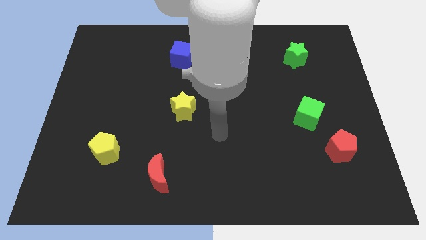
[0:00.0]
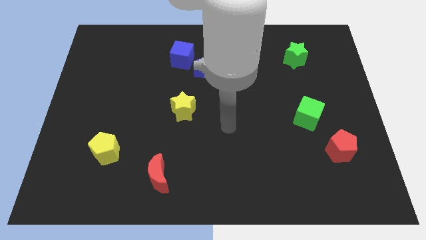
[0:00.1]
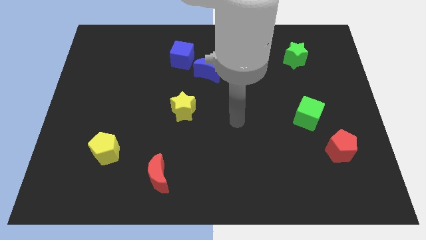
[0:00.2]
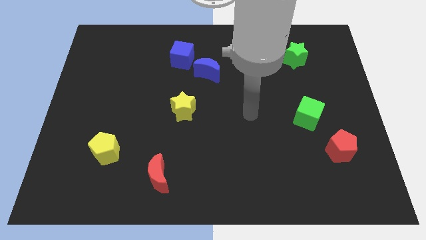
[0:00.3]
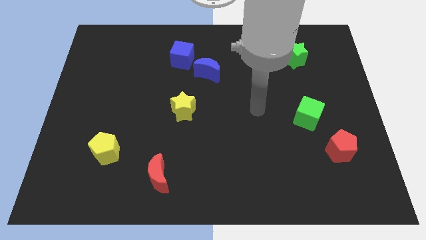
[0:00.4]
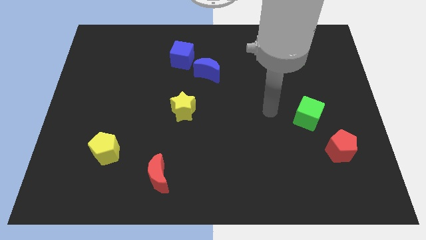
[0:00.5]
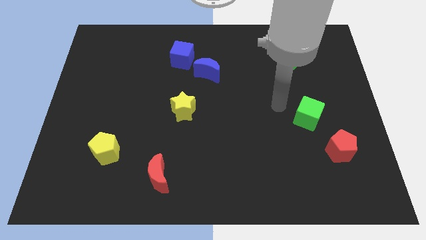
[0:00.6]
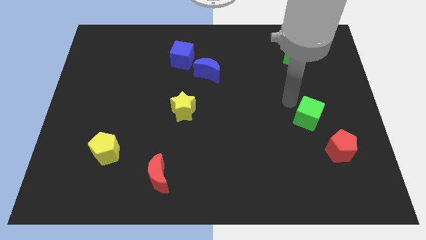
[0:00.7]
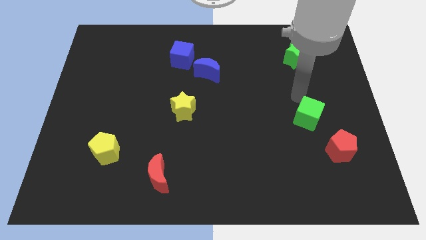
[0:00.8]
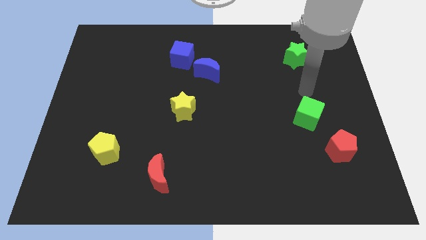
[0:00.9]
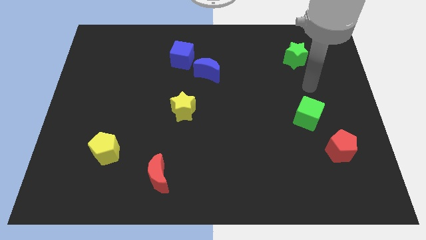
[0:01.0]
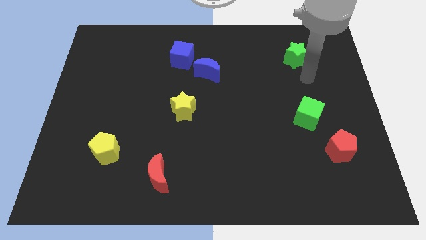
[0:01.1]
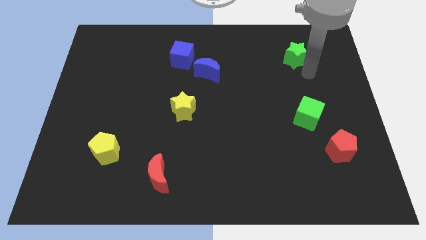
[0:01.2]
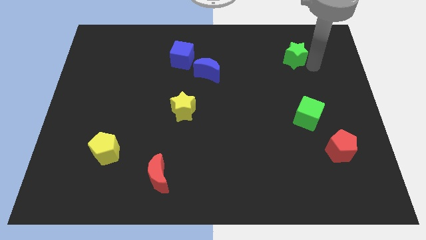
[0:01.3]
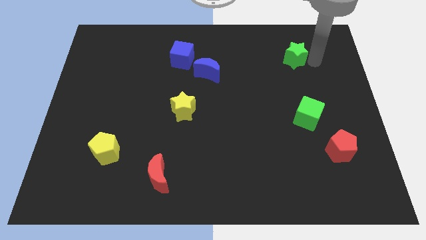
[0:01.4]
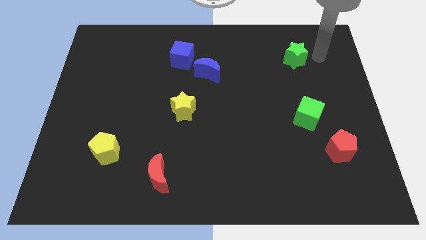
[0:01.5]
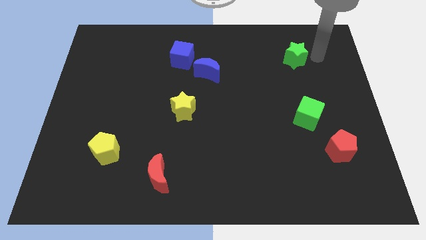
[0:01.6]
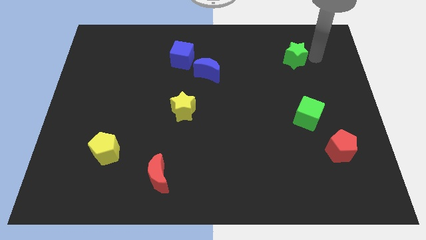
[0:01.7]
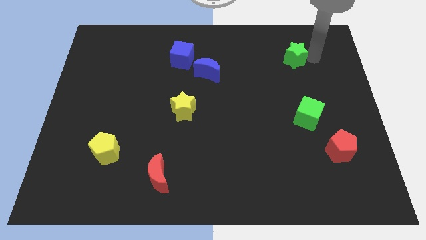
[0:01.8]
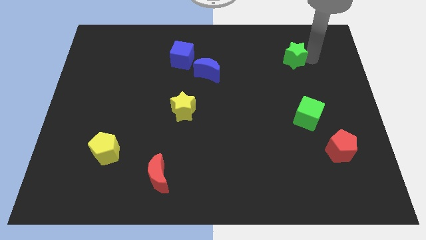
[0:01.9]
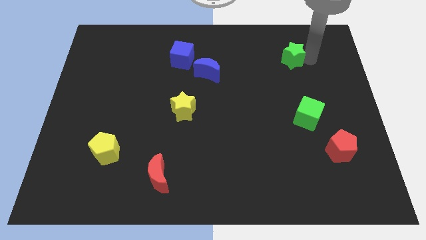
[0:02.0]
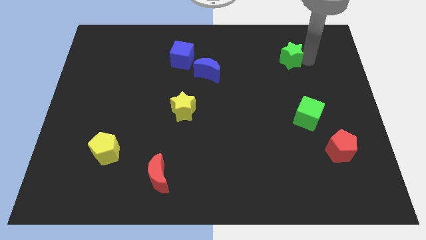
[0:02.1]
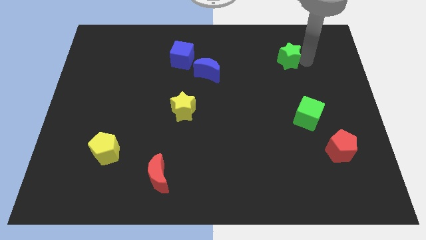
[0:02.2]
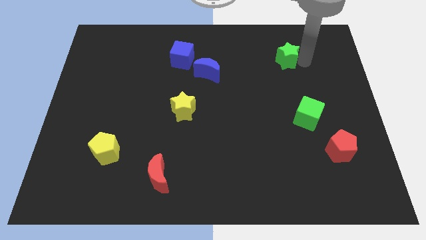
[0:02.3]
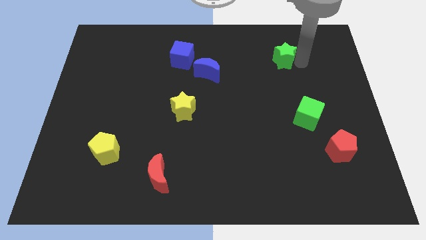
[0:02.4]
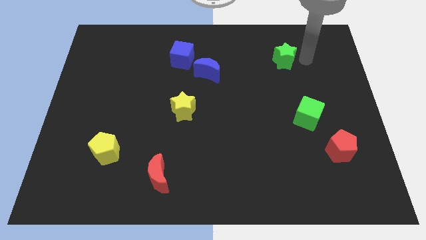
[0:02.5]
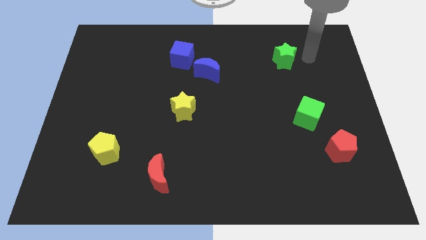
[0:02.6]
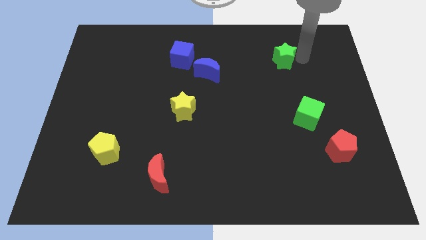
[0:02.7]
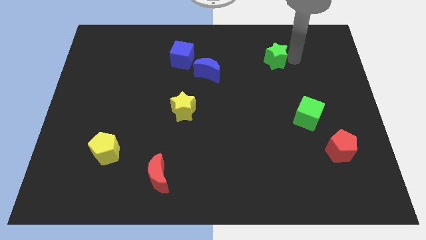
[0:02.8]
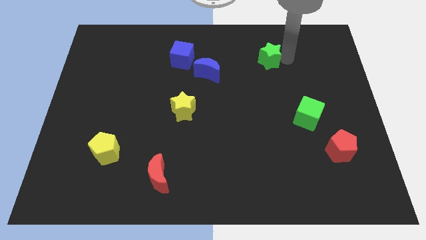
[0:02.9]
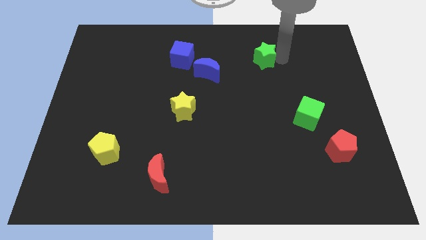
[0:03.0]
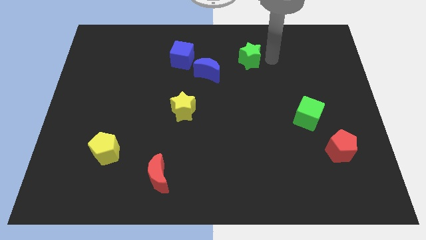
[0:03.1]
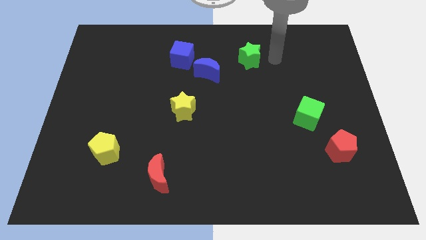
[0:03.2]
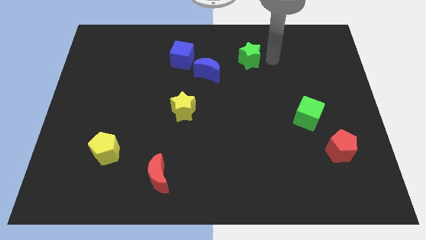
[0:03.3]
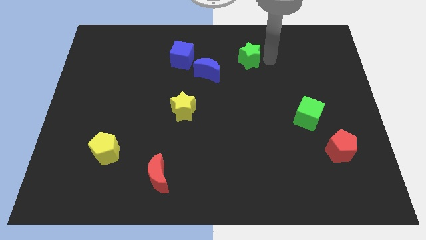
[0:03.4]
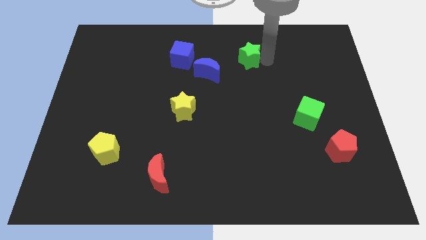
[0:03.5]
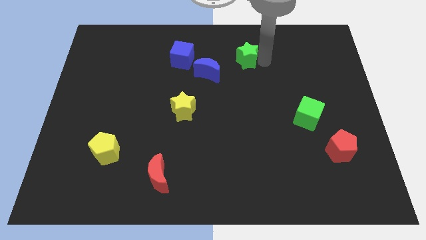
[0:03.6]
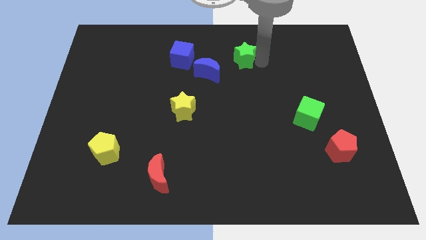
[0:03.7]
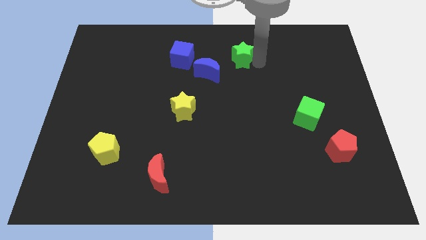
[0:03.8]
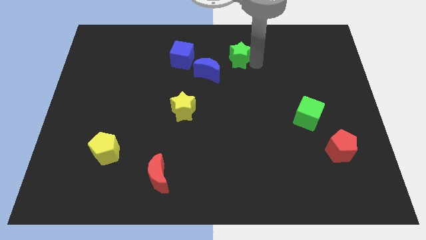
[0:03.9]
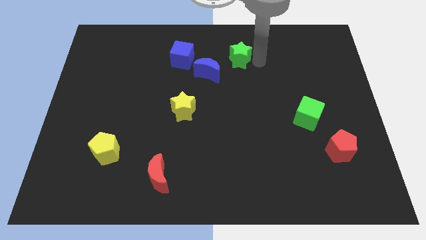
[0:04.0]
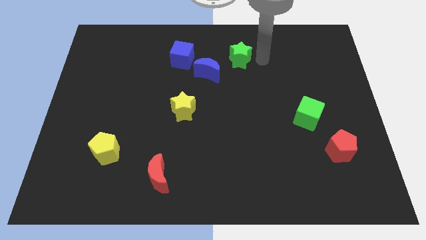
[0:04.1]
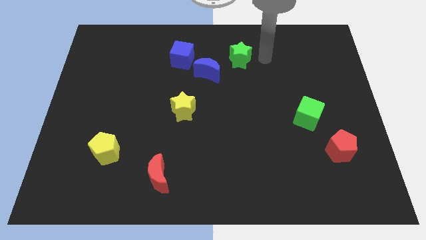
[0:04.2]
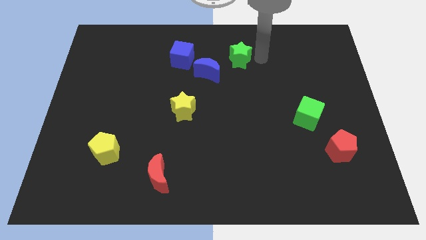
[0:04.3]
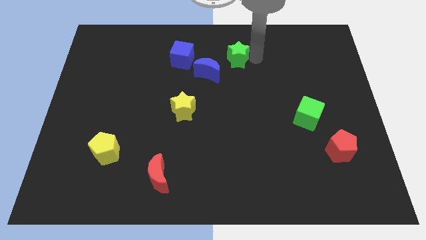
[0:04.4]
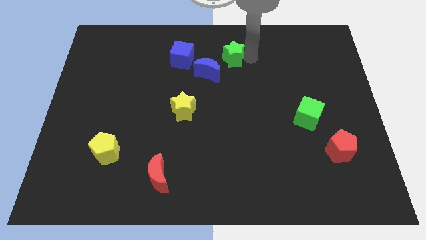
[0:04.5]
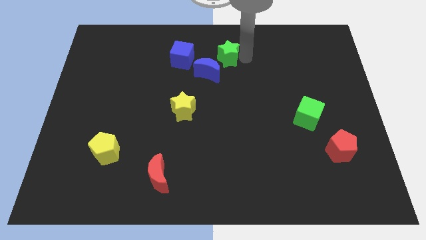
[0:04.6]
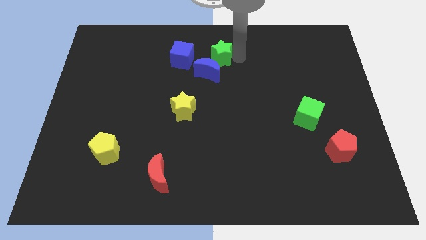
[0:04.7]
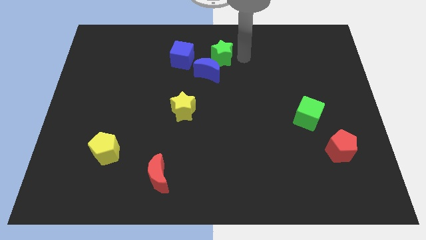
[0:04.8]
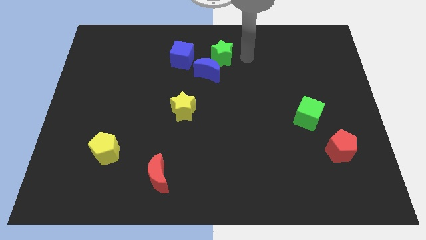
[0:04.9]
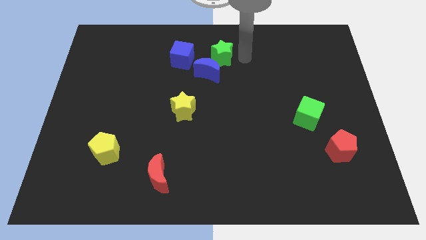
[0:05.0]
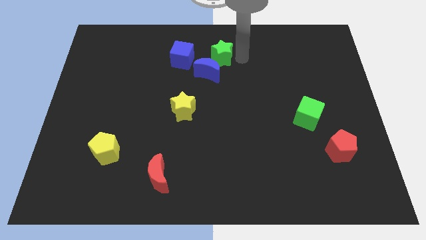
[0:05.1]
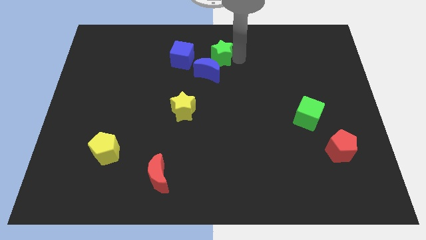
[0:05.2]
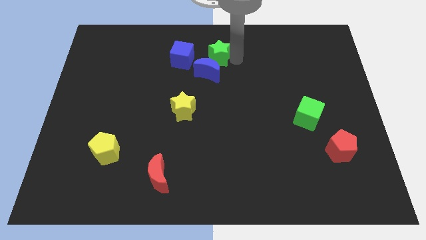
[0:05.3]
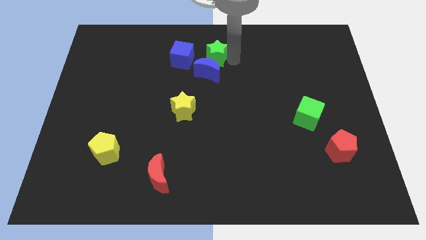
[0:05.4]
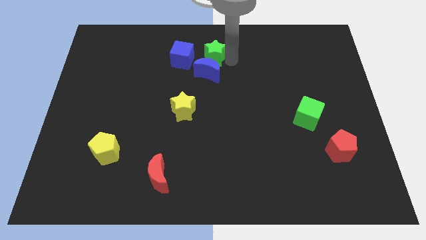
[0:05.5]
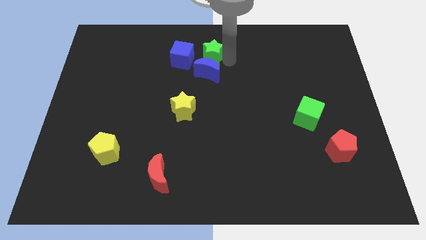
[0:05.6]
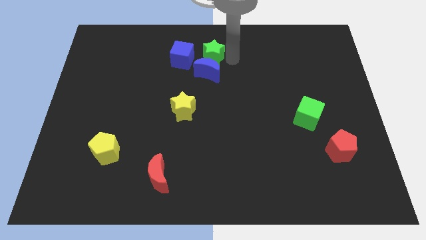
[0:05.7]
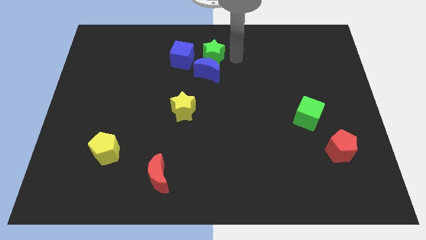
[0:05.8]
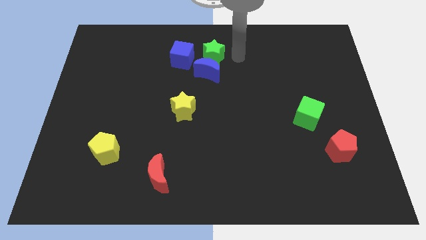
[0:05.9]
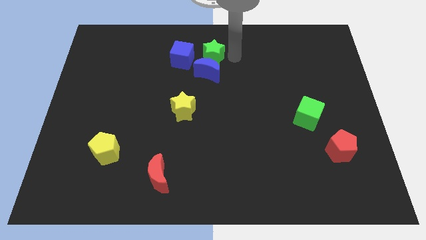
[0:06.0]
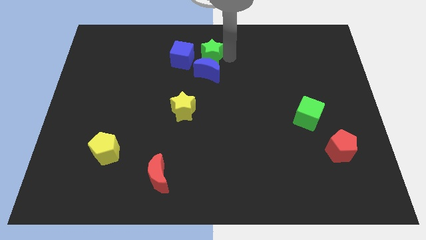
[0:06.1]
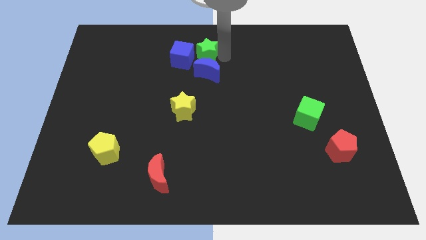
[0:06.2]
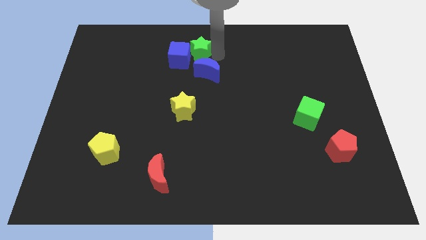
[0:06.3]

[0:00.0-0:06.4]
push the green star next to the blue cube
